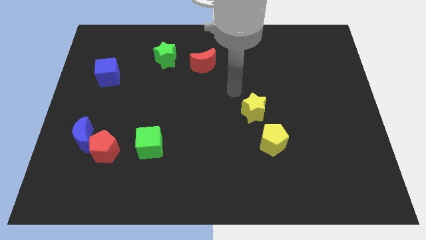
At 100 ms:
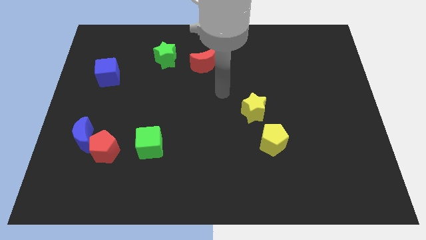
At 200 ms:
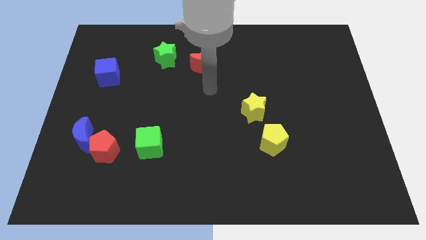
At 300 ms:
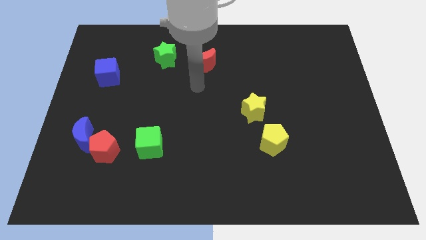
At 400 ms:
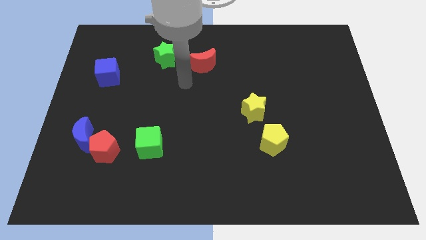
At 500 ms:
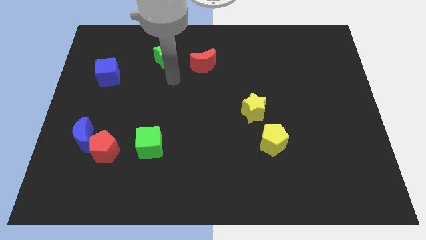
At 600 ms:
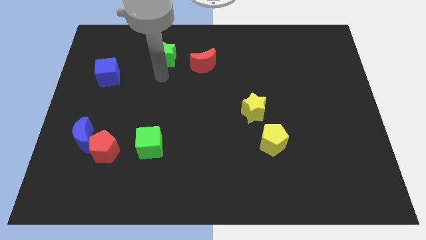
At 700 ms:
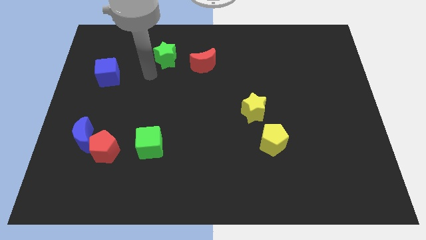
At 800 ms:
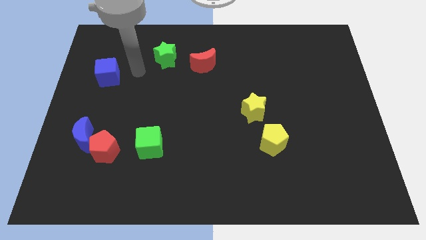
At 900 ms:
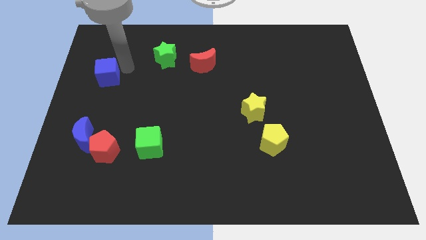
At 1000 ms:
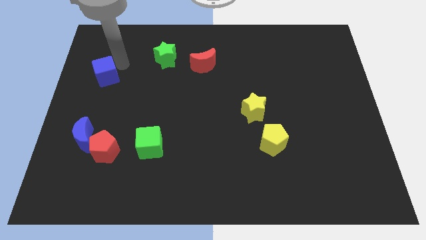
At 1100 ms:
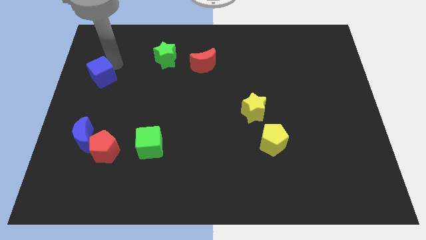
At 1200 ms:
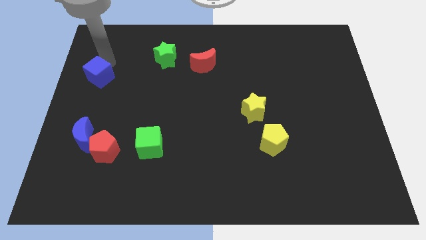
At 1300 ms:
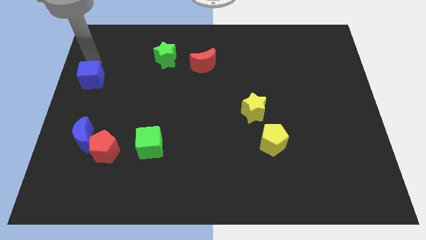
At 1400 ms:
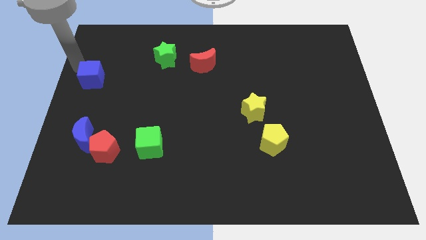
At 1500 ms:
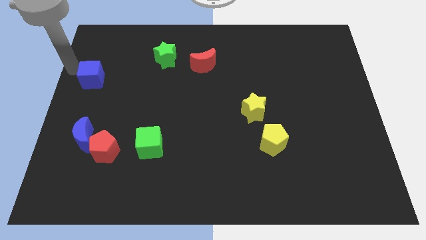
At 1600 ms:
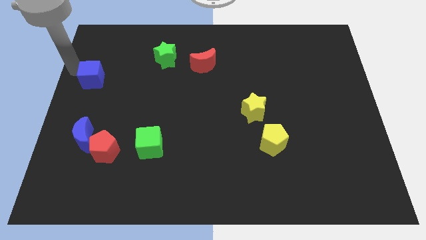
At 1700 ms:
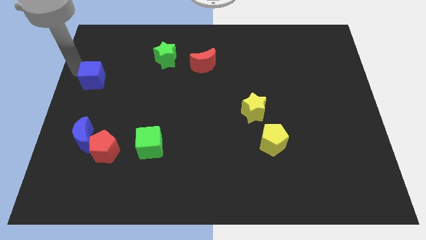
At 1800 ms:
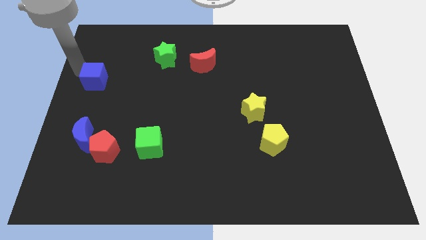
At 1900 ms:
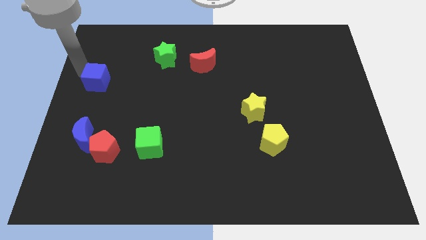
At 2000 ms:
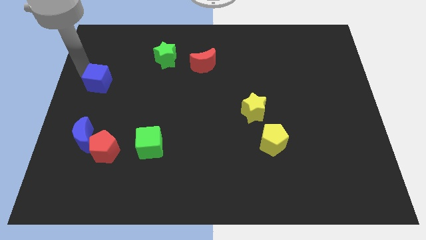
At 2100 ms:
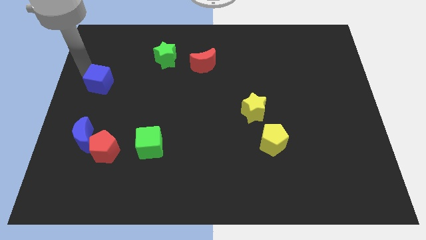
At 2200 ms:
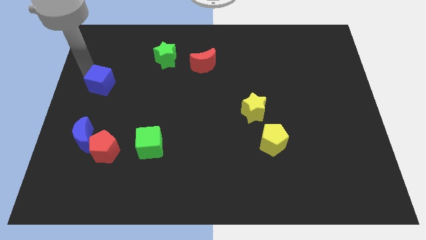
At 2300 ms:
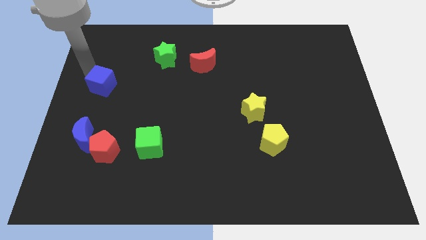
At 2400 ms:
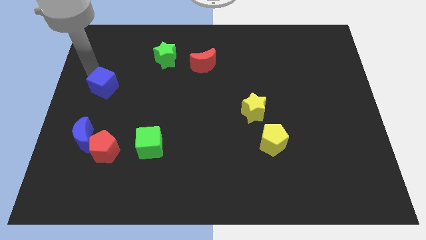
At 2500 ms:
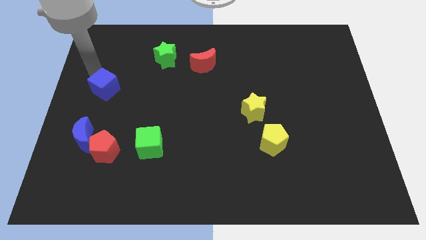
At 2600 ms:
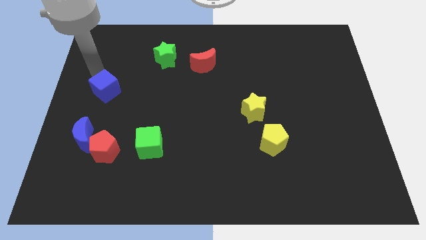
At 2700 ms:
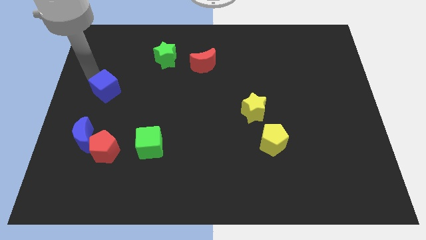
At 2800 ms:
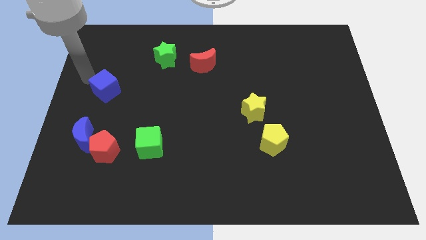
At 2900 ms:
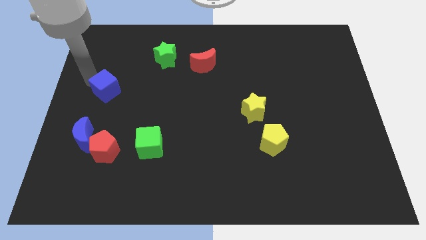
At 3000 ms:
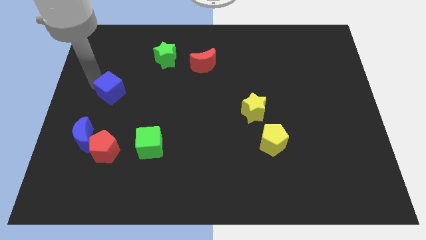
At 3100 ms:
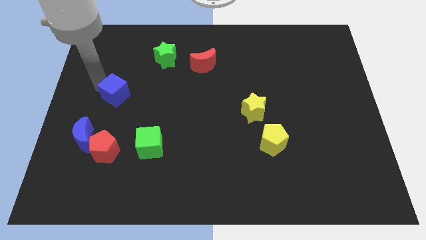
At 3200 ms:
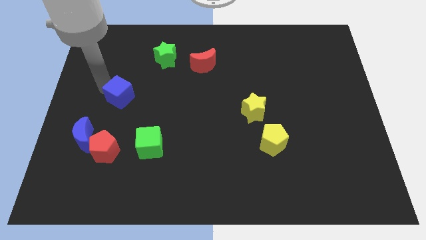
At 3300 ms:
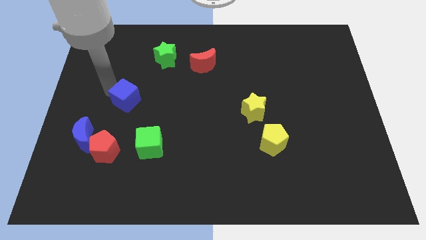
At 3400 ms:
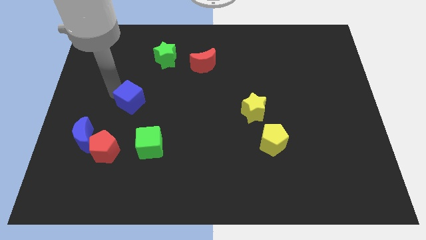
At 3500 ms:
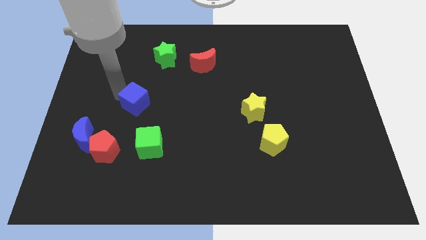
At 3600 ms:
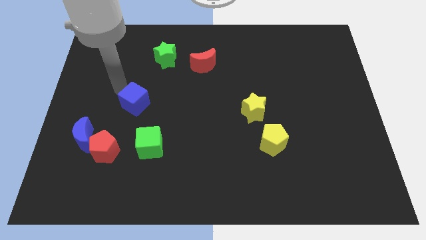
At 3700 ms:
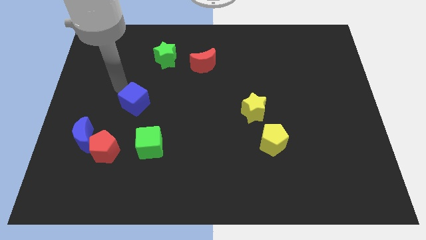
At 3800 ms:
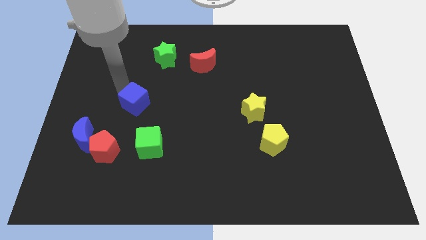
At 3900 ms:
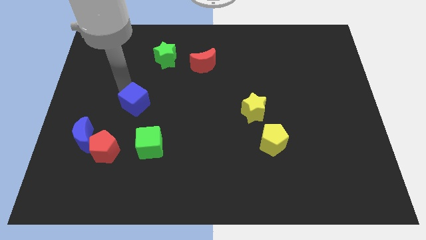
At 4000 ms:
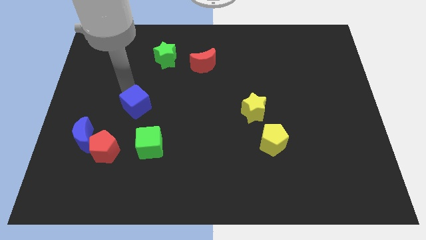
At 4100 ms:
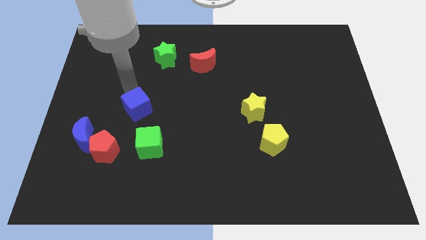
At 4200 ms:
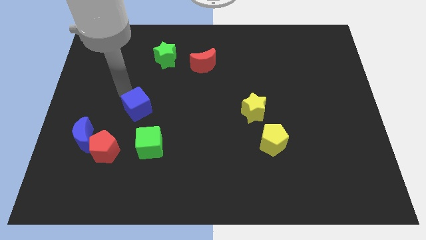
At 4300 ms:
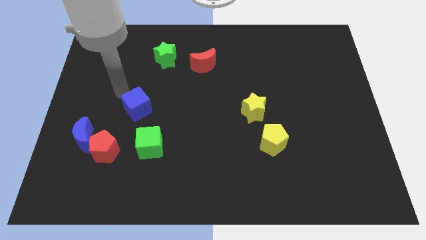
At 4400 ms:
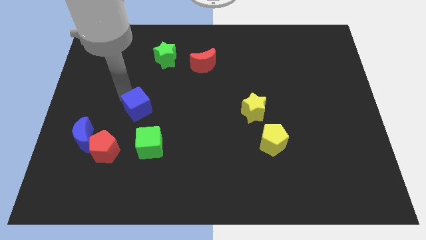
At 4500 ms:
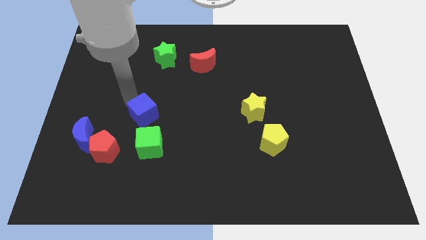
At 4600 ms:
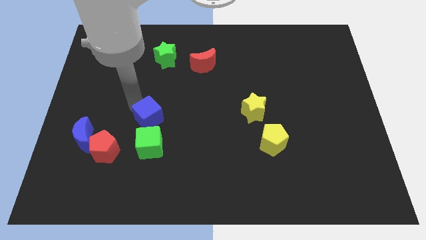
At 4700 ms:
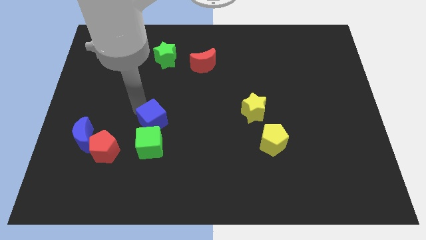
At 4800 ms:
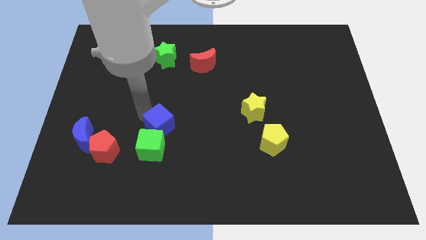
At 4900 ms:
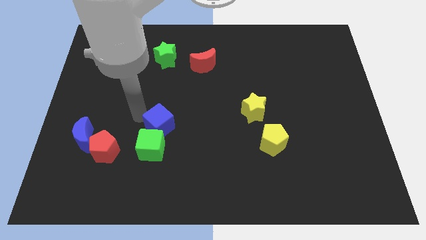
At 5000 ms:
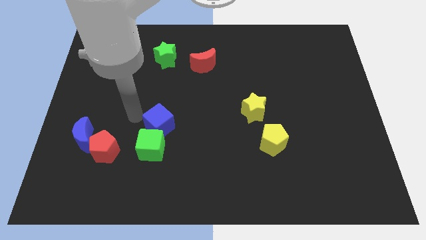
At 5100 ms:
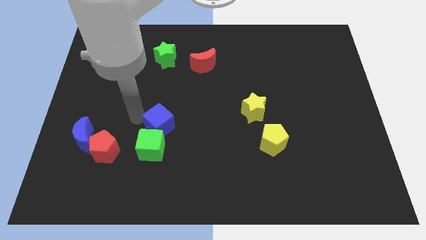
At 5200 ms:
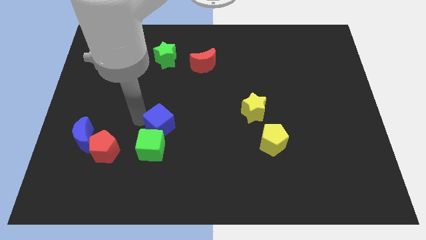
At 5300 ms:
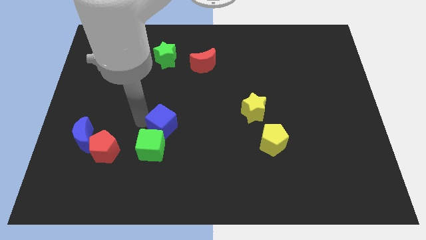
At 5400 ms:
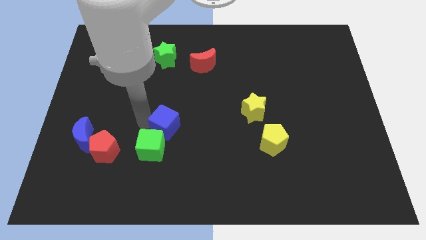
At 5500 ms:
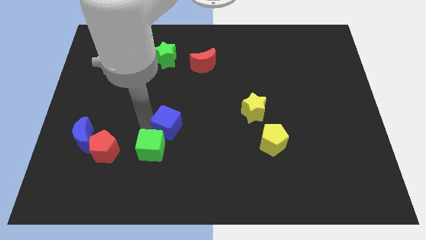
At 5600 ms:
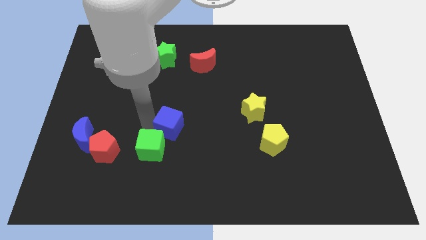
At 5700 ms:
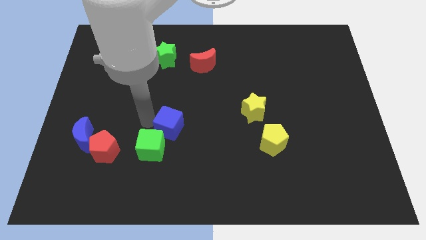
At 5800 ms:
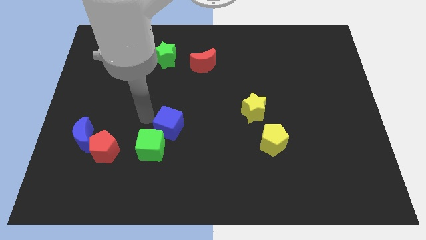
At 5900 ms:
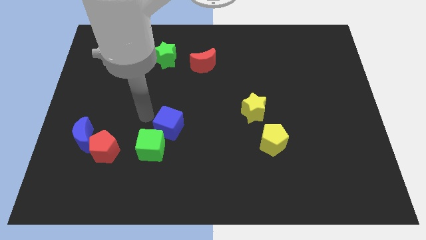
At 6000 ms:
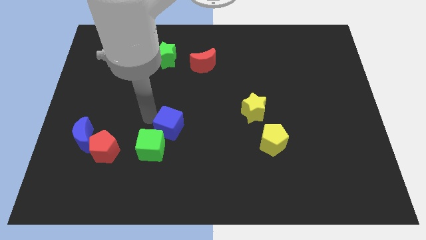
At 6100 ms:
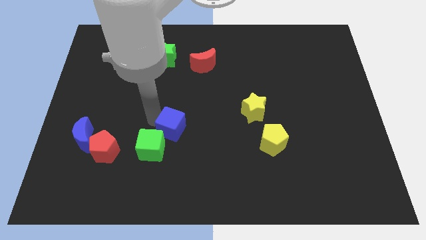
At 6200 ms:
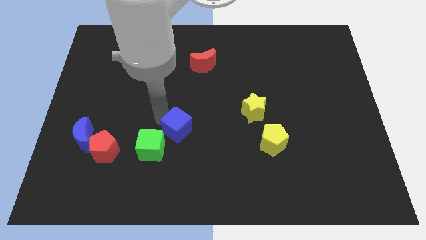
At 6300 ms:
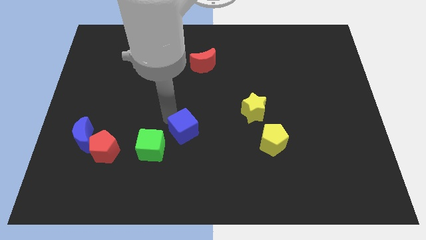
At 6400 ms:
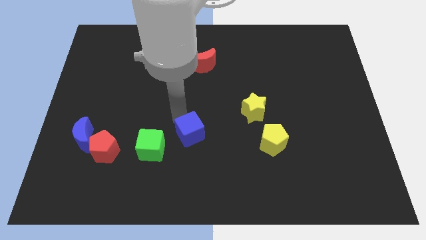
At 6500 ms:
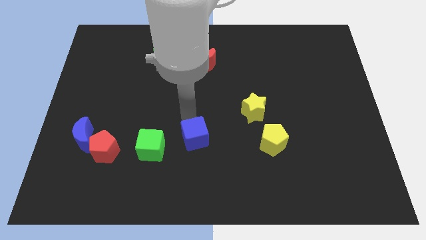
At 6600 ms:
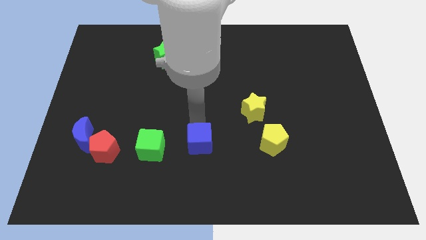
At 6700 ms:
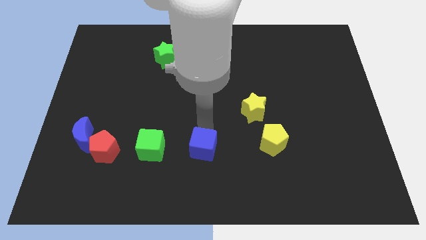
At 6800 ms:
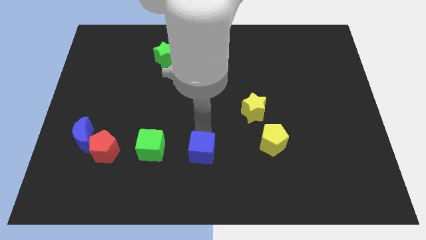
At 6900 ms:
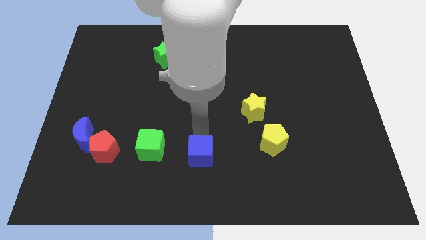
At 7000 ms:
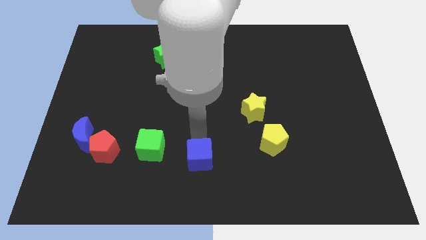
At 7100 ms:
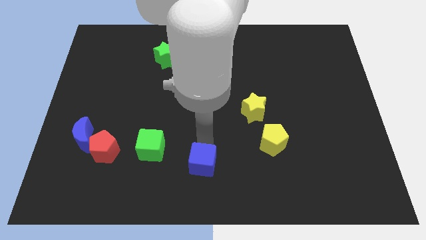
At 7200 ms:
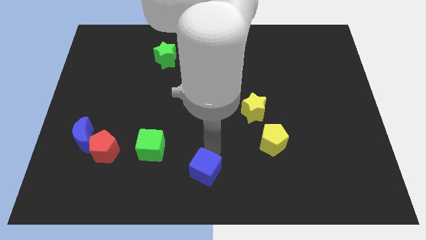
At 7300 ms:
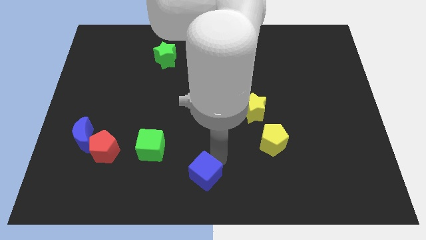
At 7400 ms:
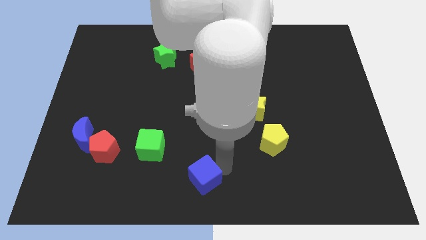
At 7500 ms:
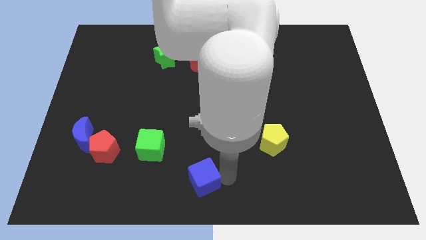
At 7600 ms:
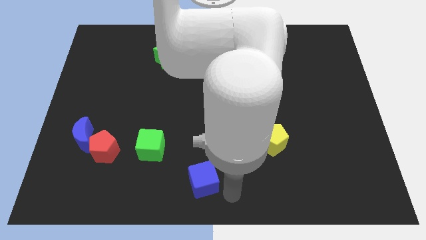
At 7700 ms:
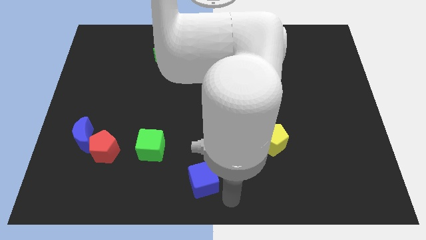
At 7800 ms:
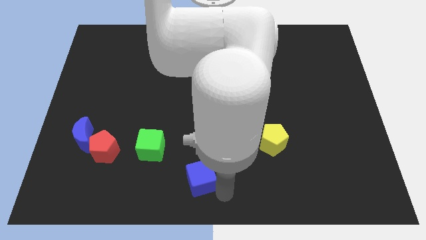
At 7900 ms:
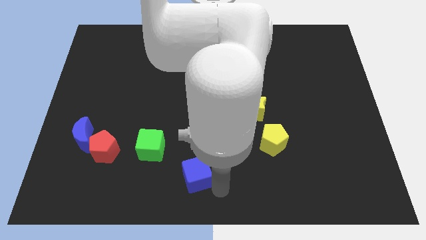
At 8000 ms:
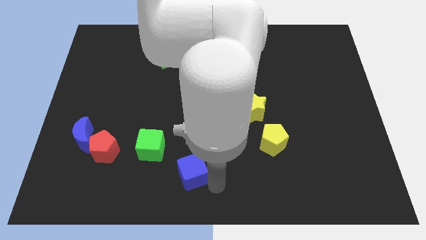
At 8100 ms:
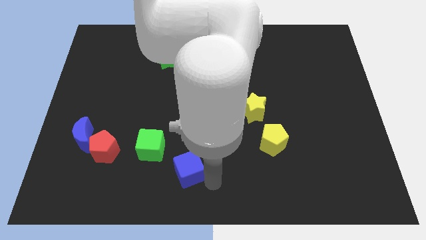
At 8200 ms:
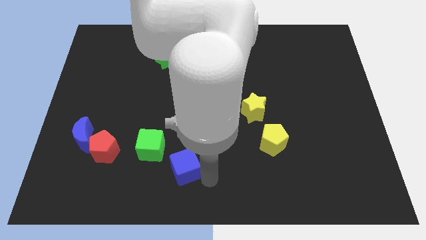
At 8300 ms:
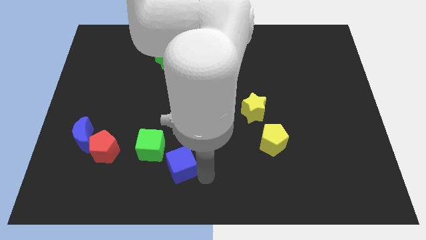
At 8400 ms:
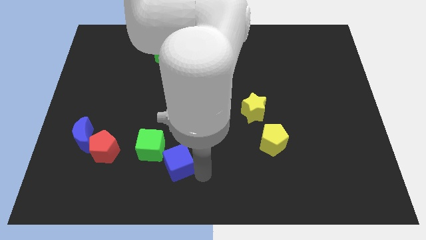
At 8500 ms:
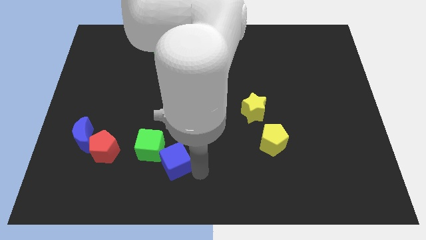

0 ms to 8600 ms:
push the blue cube just right of the red pentagon
